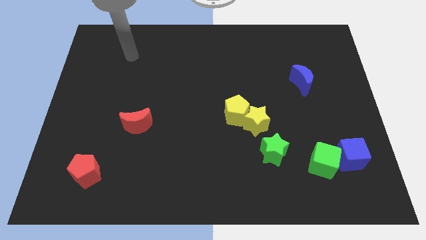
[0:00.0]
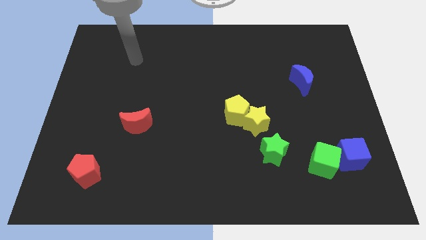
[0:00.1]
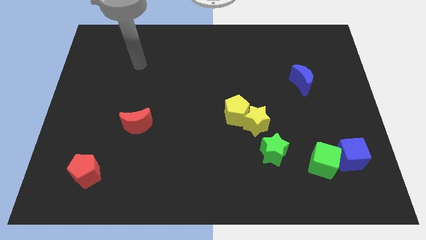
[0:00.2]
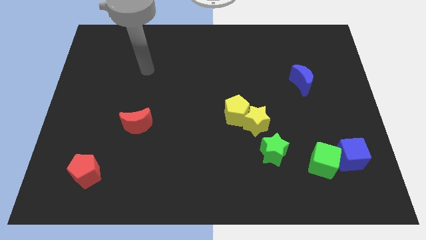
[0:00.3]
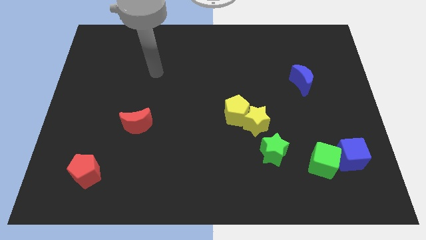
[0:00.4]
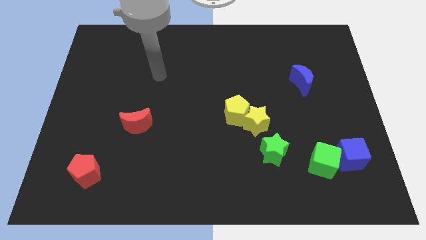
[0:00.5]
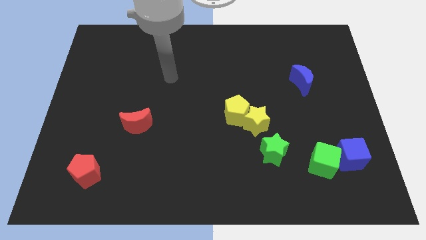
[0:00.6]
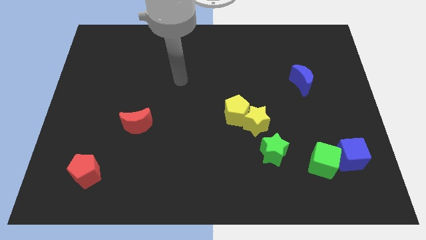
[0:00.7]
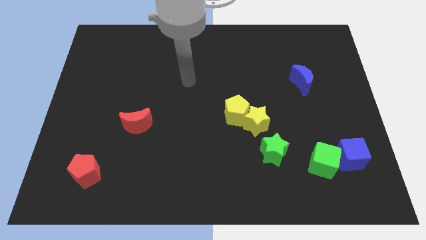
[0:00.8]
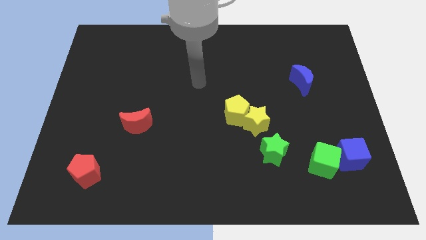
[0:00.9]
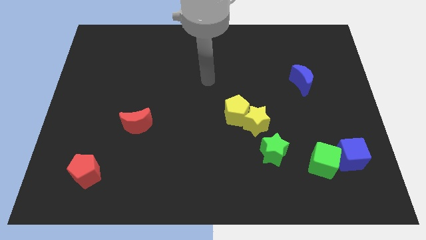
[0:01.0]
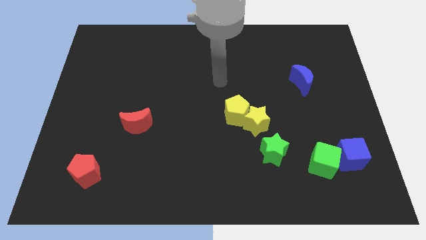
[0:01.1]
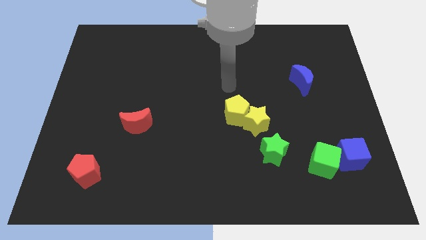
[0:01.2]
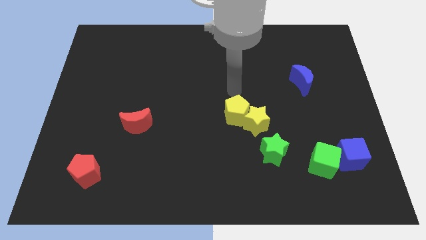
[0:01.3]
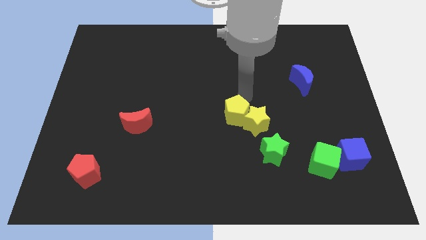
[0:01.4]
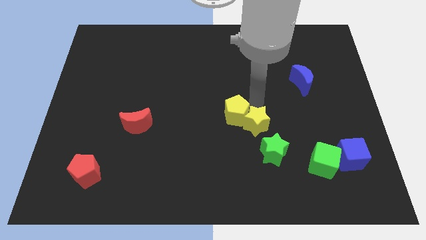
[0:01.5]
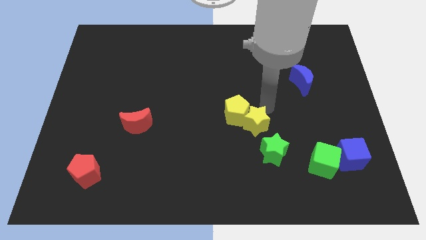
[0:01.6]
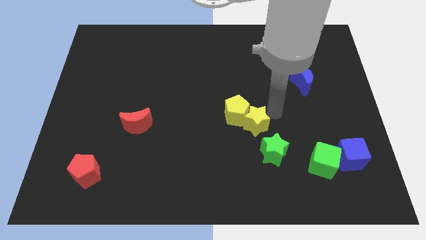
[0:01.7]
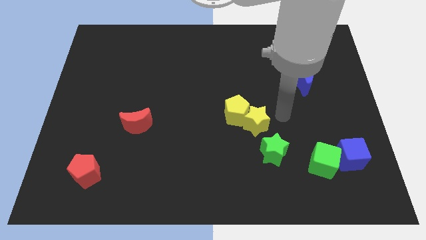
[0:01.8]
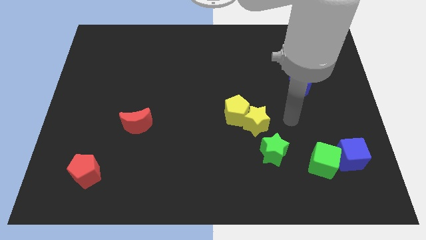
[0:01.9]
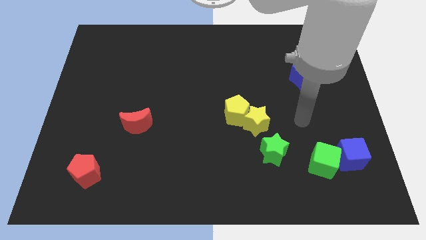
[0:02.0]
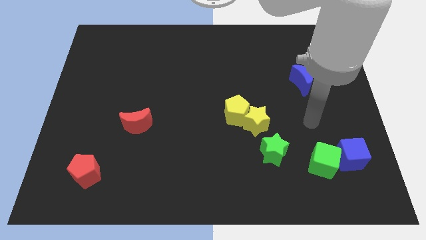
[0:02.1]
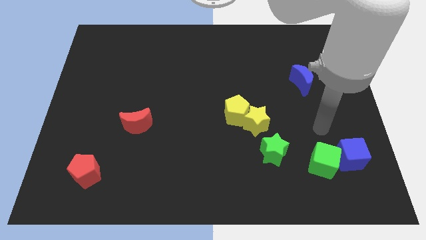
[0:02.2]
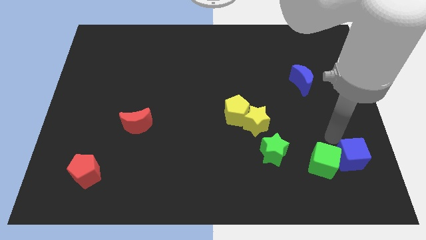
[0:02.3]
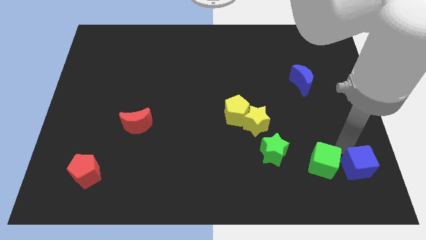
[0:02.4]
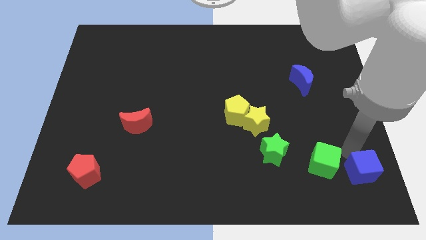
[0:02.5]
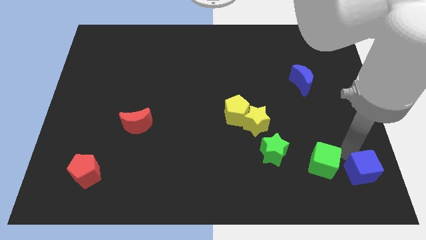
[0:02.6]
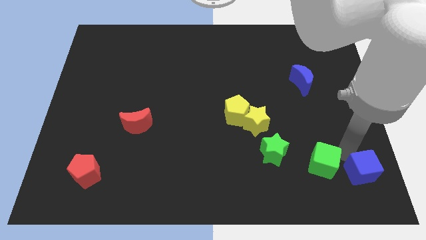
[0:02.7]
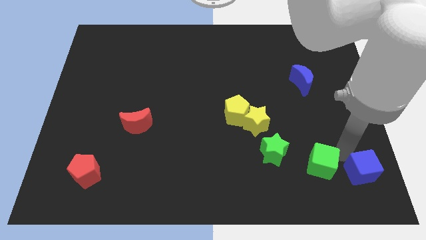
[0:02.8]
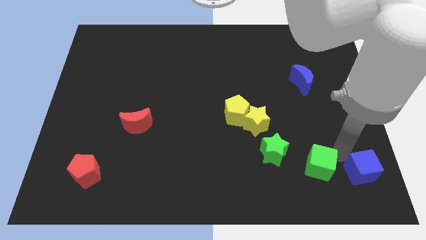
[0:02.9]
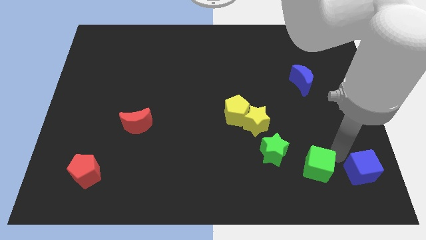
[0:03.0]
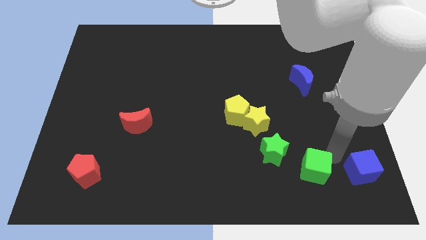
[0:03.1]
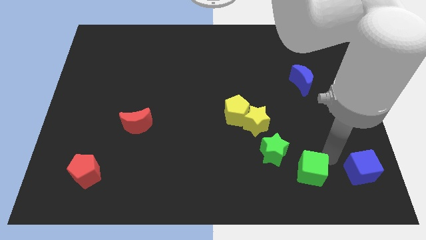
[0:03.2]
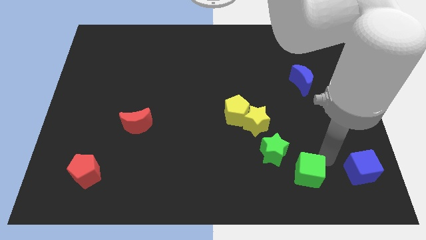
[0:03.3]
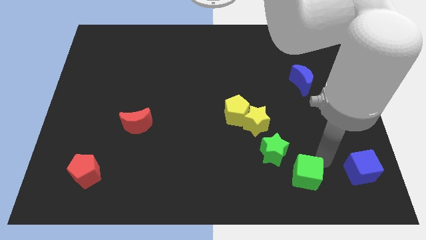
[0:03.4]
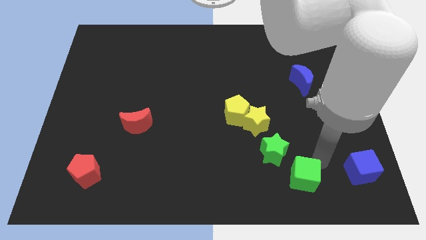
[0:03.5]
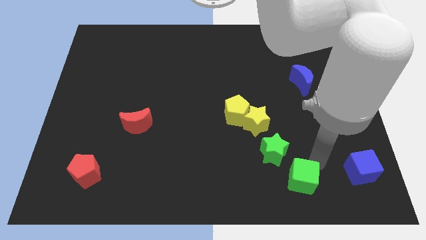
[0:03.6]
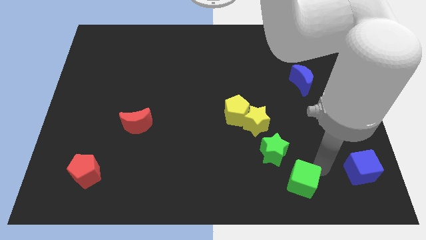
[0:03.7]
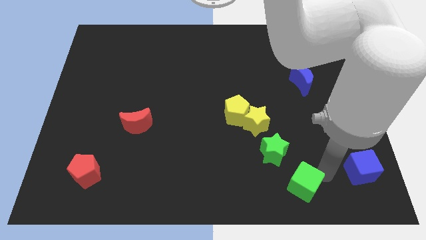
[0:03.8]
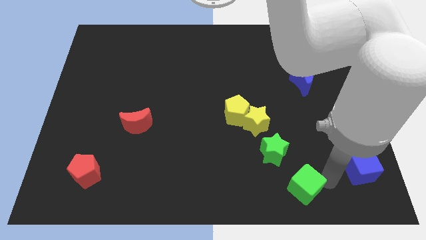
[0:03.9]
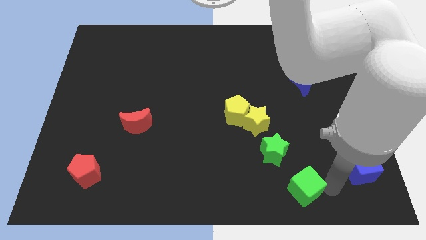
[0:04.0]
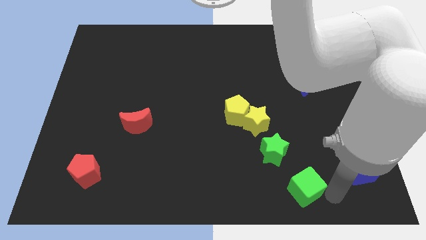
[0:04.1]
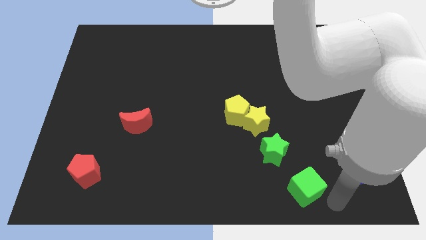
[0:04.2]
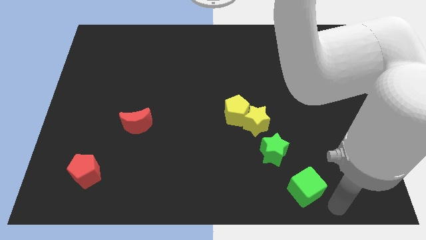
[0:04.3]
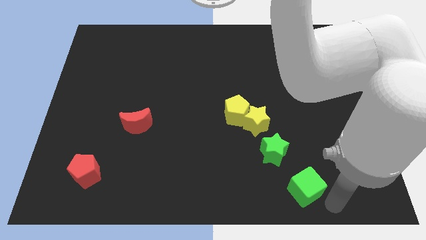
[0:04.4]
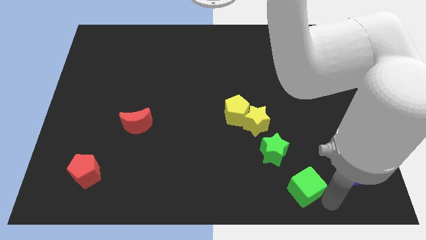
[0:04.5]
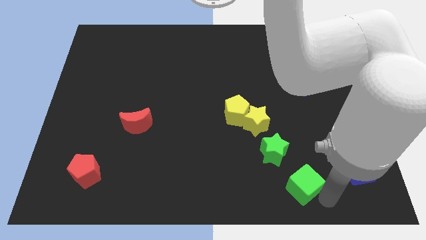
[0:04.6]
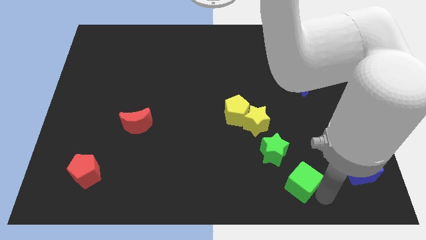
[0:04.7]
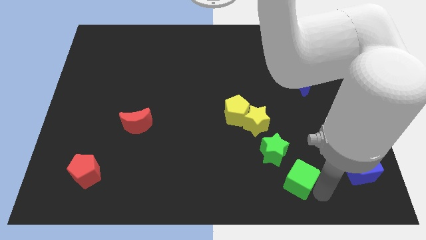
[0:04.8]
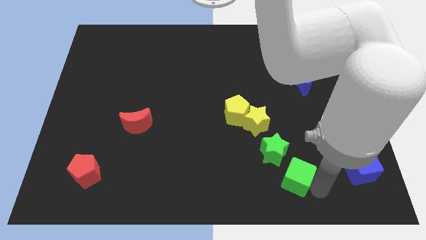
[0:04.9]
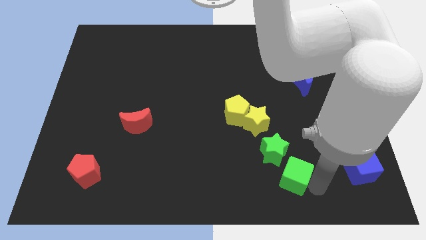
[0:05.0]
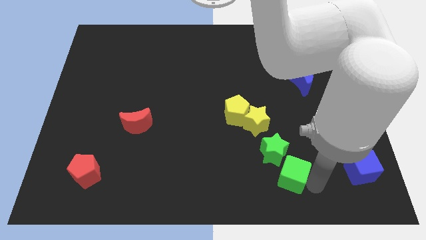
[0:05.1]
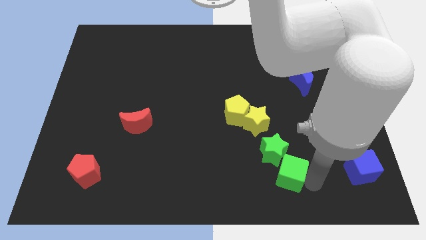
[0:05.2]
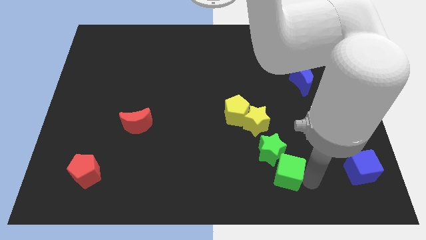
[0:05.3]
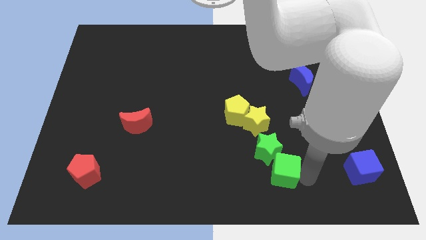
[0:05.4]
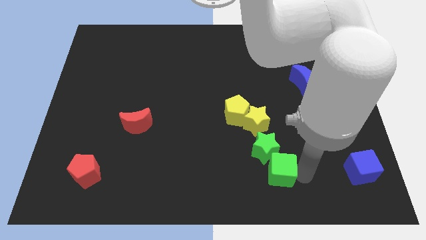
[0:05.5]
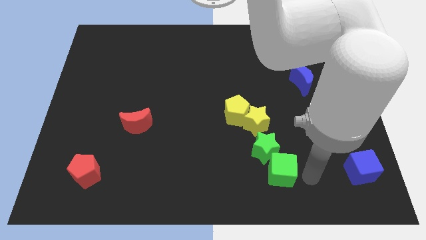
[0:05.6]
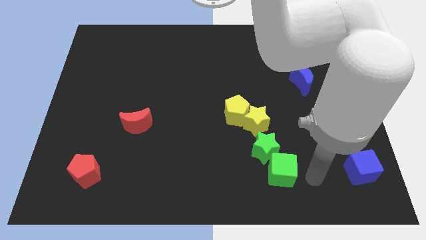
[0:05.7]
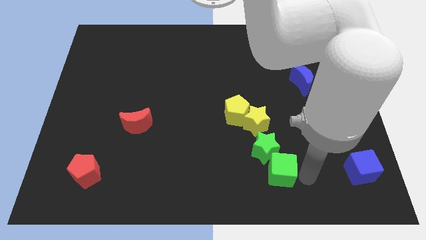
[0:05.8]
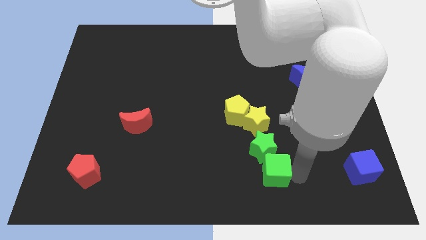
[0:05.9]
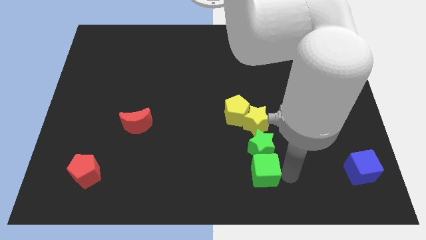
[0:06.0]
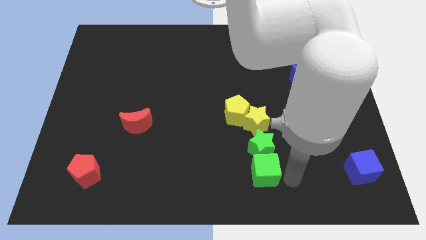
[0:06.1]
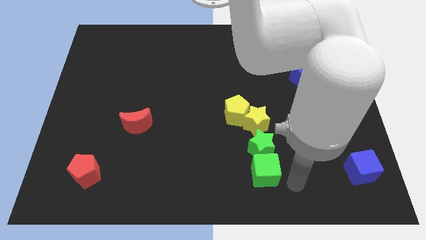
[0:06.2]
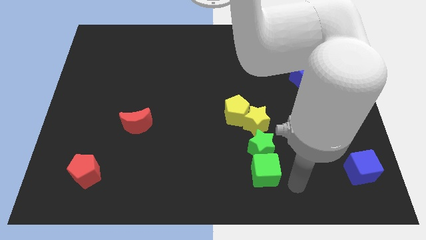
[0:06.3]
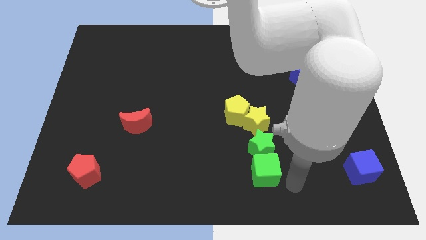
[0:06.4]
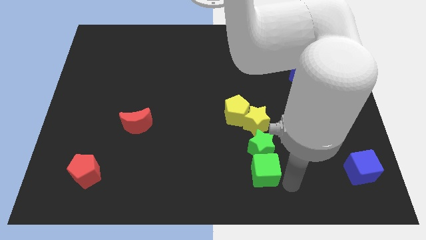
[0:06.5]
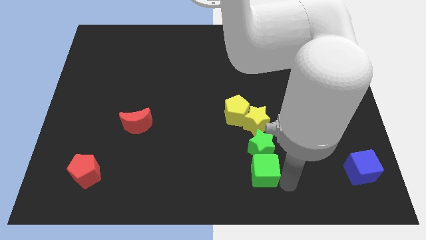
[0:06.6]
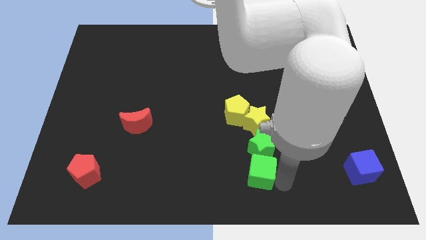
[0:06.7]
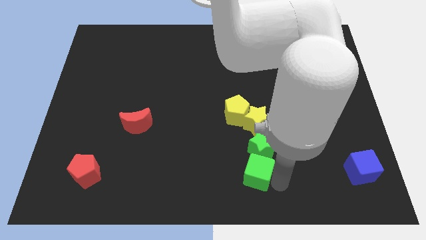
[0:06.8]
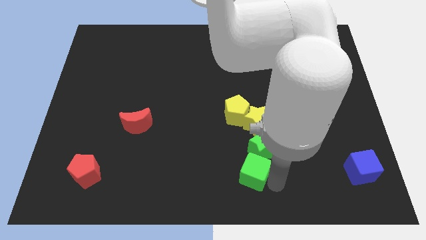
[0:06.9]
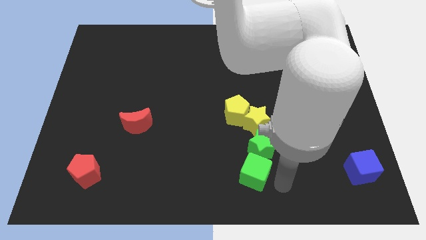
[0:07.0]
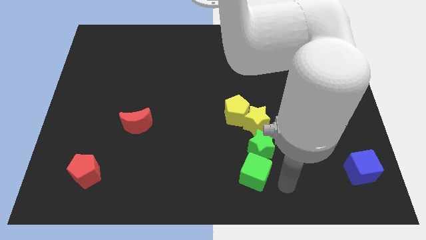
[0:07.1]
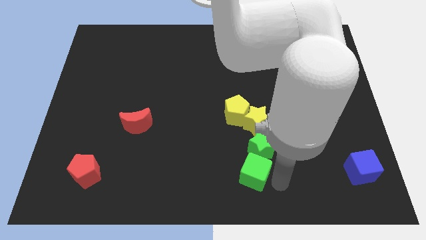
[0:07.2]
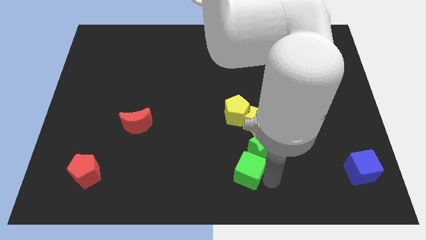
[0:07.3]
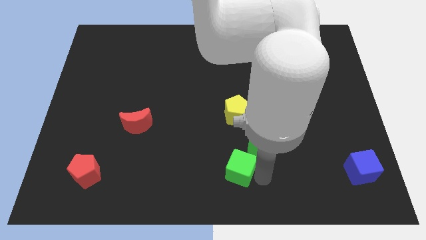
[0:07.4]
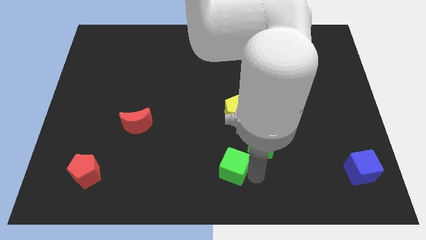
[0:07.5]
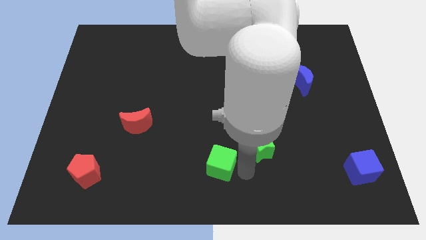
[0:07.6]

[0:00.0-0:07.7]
move the green cube left

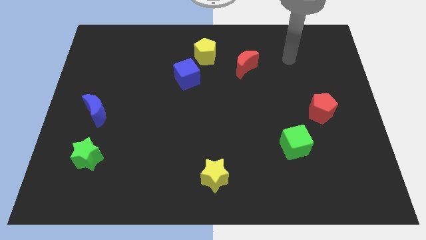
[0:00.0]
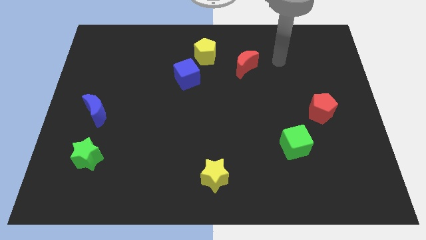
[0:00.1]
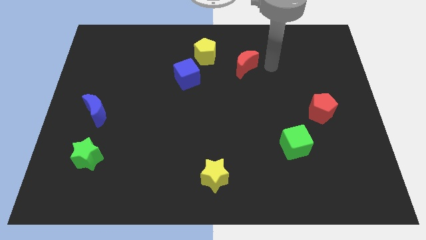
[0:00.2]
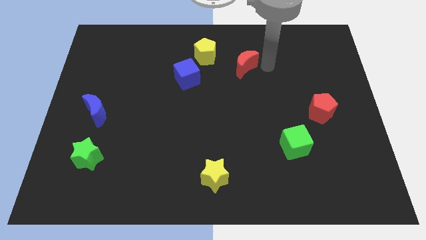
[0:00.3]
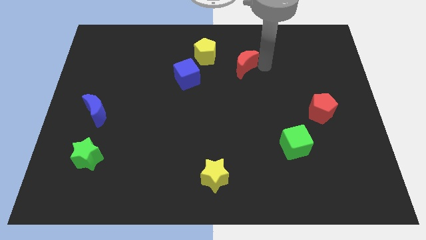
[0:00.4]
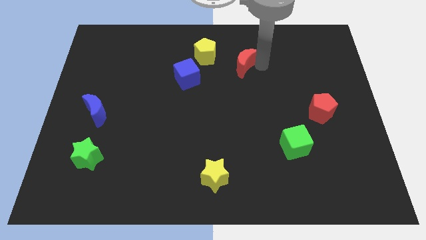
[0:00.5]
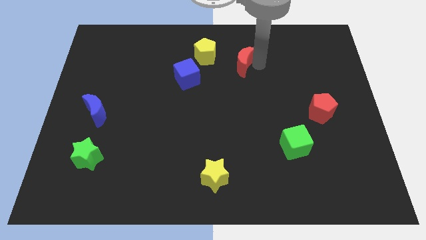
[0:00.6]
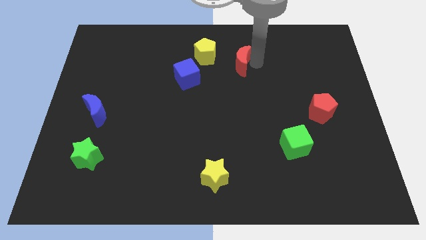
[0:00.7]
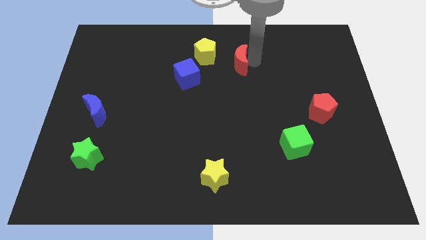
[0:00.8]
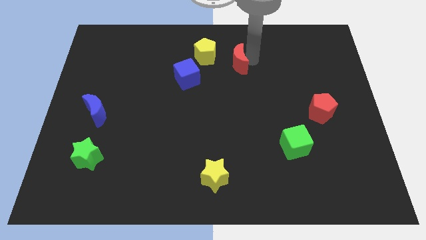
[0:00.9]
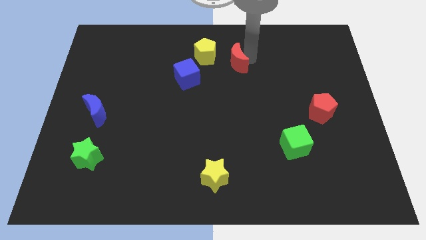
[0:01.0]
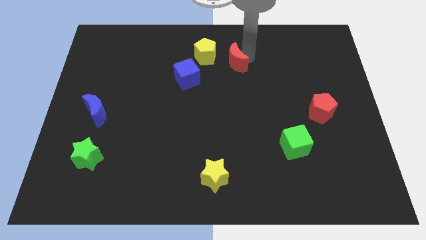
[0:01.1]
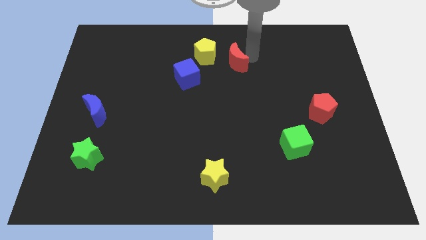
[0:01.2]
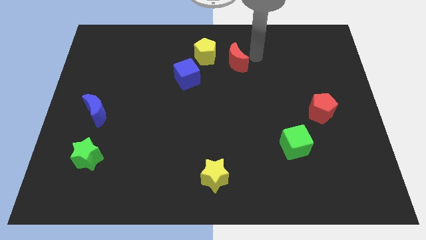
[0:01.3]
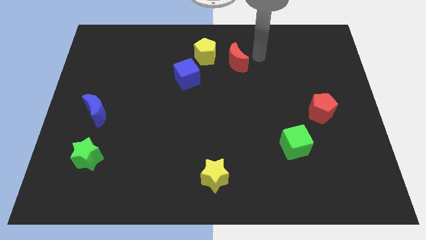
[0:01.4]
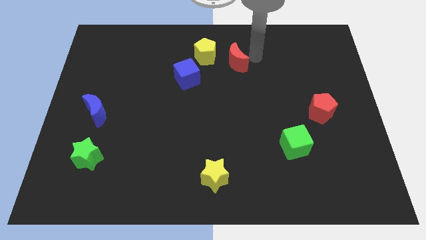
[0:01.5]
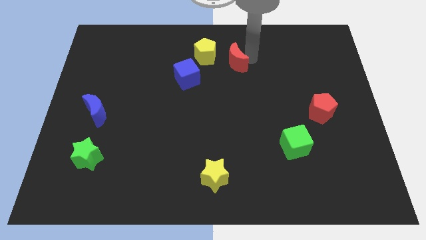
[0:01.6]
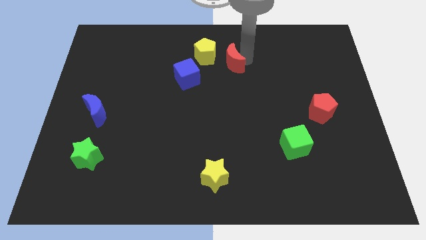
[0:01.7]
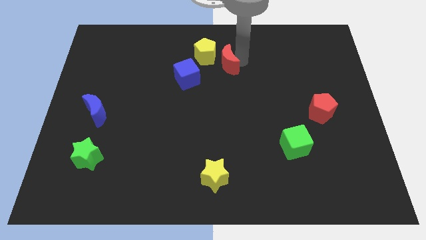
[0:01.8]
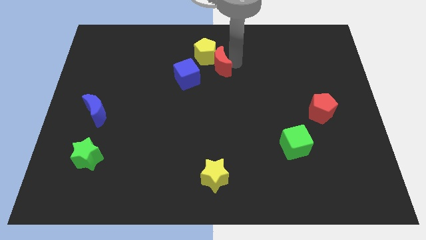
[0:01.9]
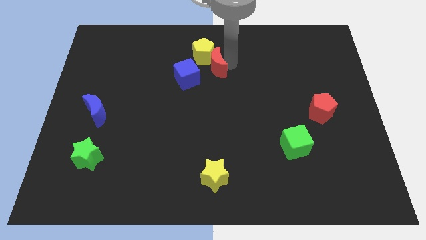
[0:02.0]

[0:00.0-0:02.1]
slide the red moon a little bit left
